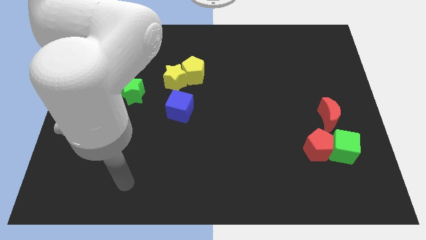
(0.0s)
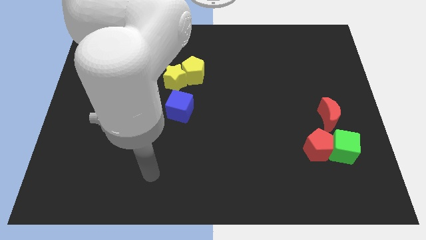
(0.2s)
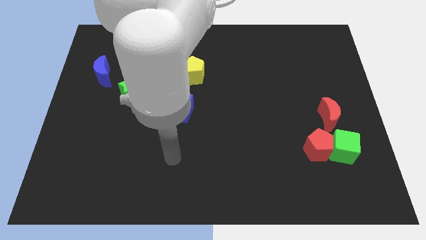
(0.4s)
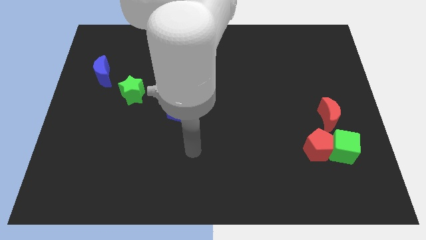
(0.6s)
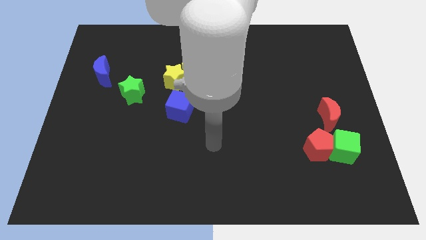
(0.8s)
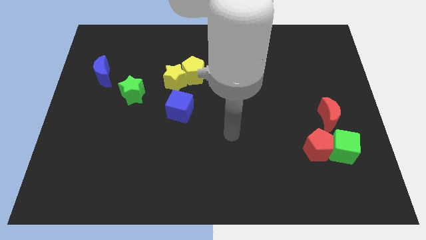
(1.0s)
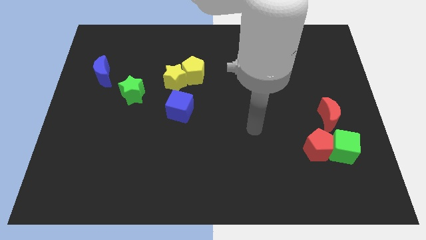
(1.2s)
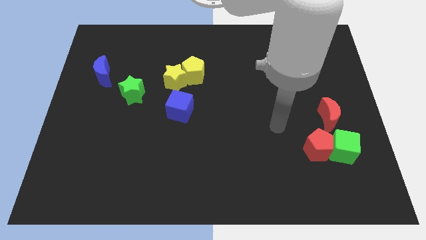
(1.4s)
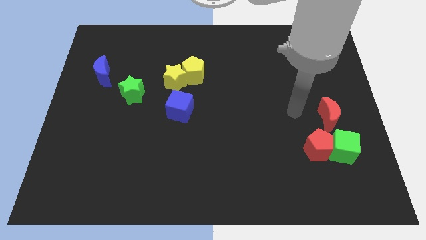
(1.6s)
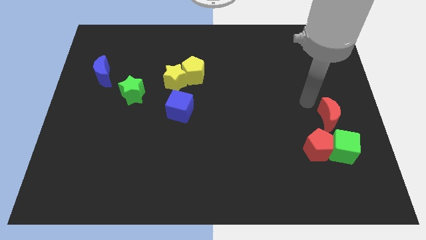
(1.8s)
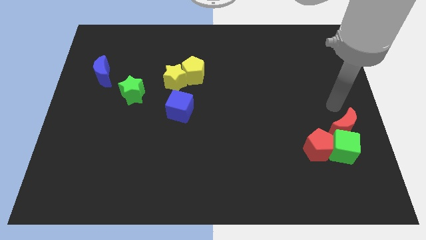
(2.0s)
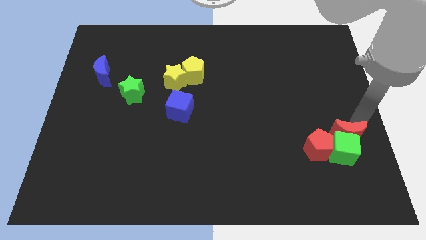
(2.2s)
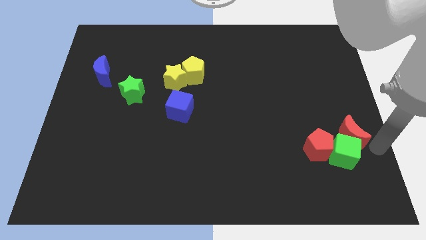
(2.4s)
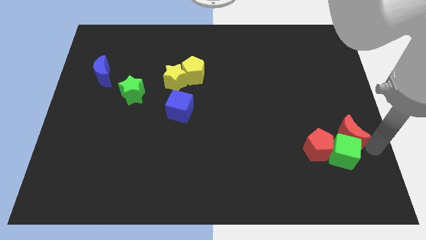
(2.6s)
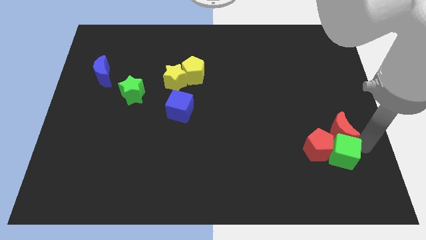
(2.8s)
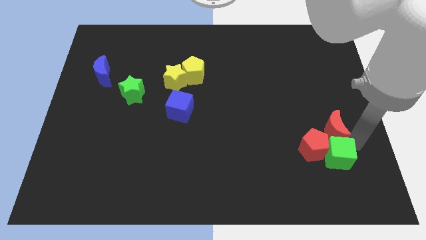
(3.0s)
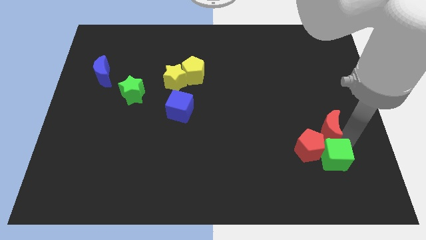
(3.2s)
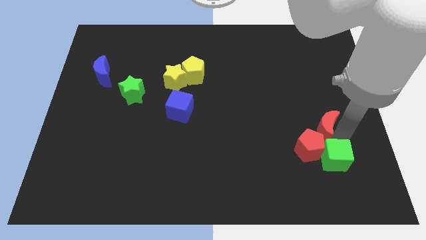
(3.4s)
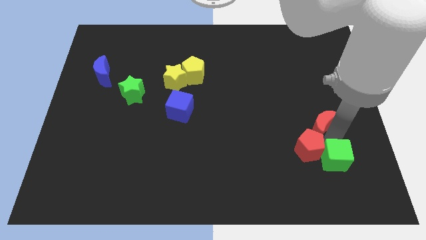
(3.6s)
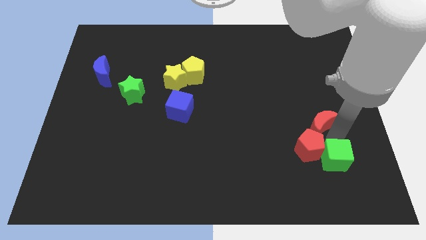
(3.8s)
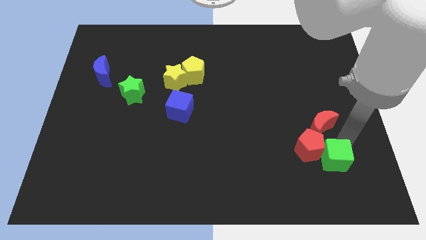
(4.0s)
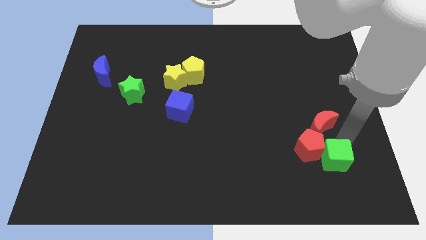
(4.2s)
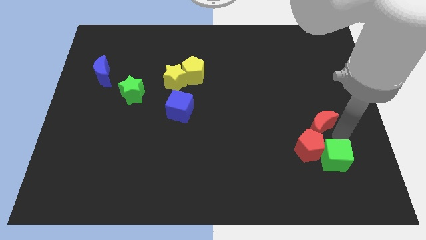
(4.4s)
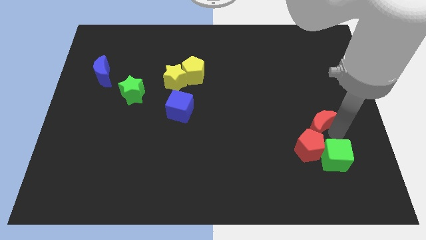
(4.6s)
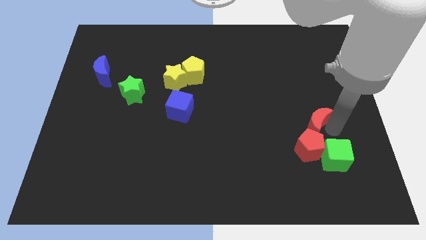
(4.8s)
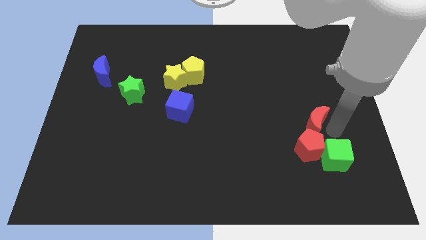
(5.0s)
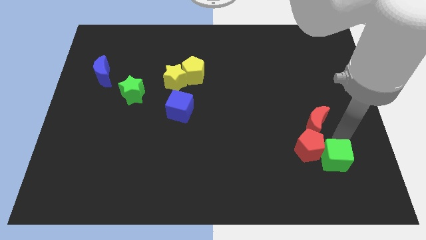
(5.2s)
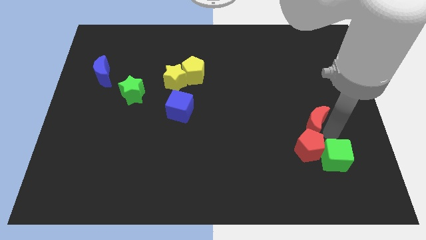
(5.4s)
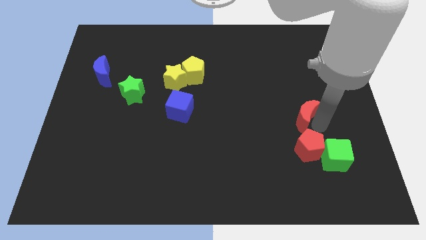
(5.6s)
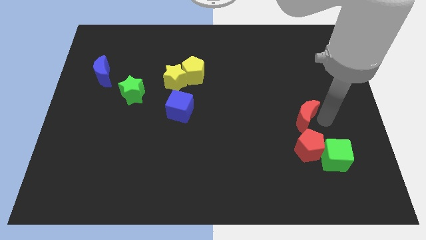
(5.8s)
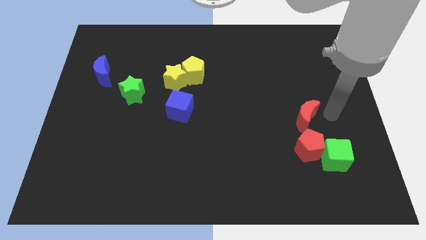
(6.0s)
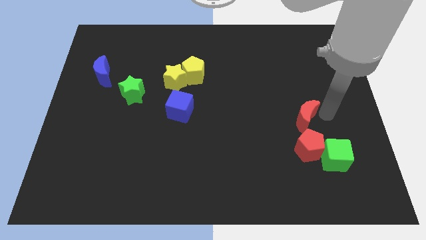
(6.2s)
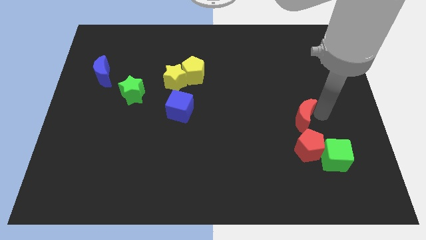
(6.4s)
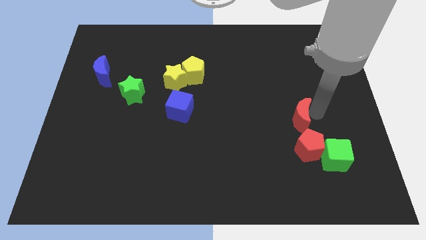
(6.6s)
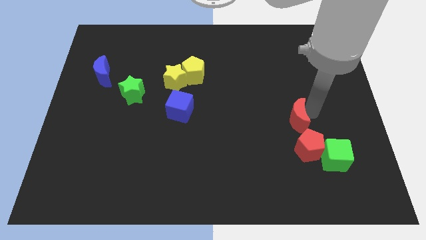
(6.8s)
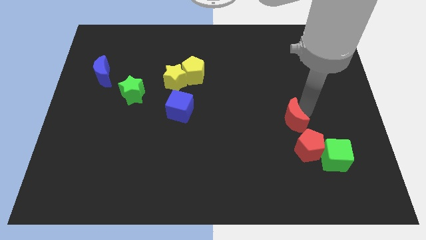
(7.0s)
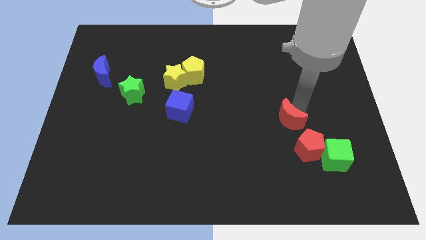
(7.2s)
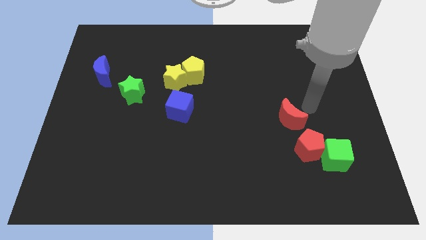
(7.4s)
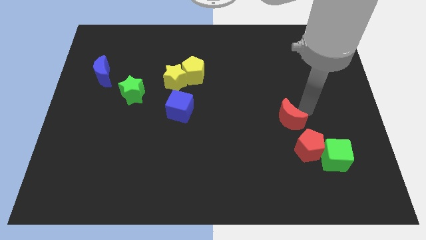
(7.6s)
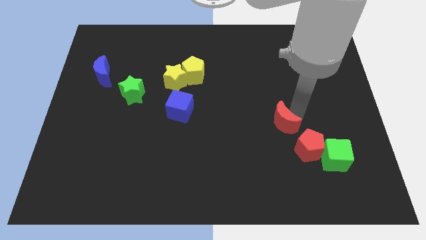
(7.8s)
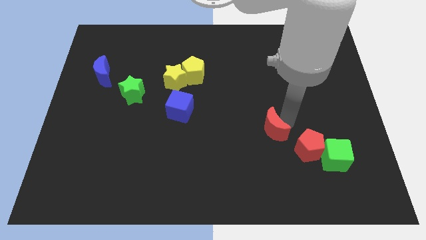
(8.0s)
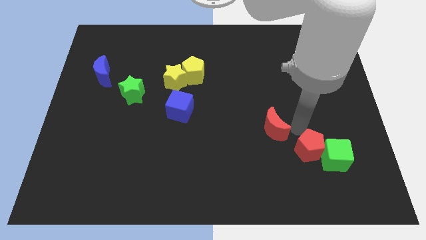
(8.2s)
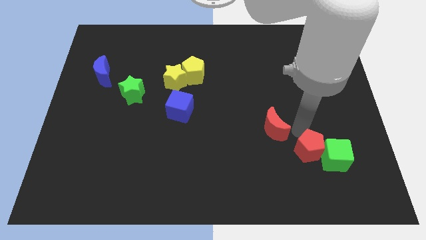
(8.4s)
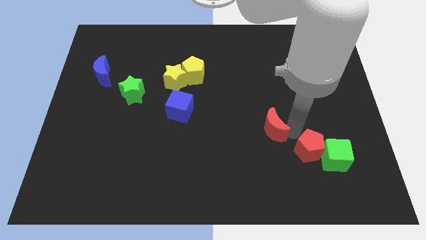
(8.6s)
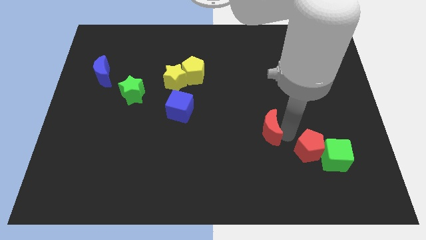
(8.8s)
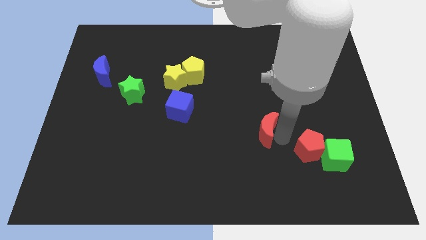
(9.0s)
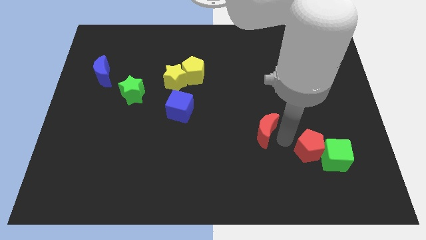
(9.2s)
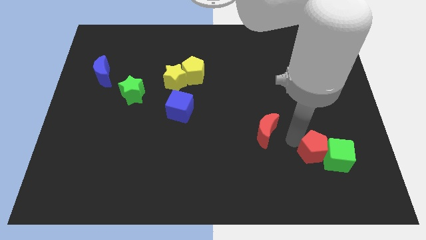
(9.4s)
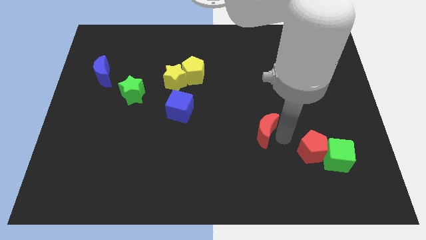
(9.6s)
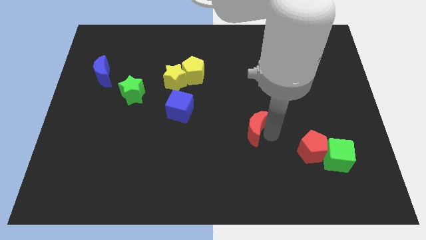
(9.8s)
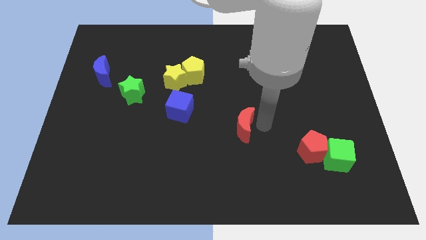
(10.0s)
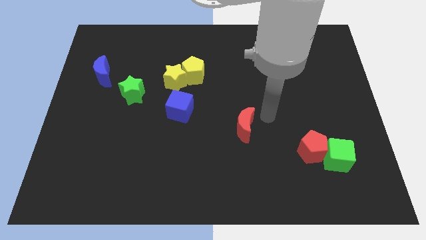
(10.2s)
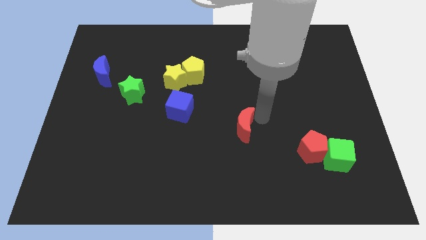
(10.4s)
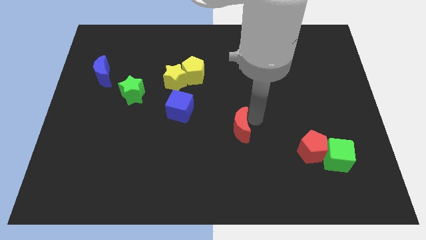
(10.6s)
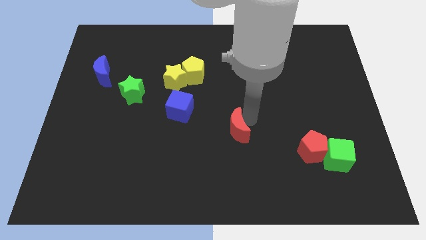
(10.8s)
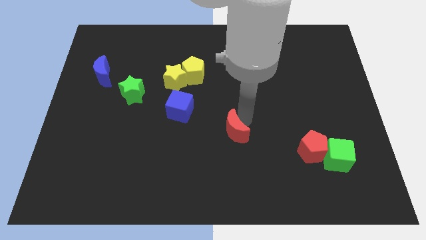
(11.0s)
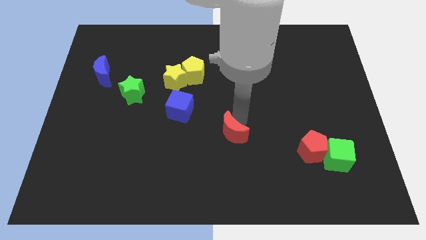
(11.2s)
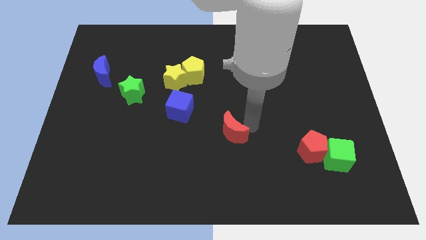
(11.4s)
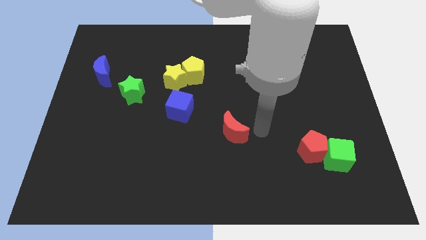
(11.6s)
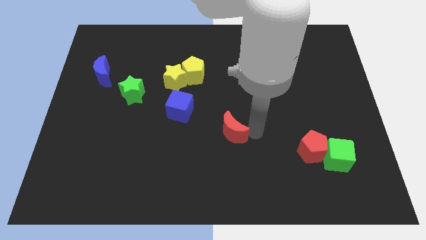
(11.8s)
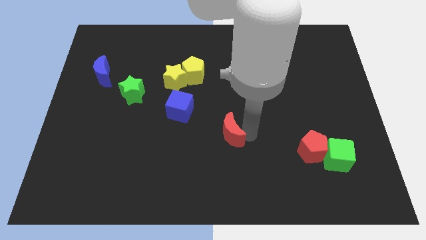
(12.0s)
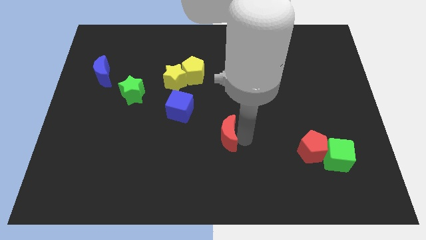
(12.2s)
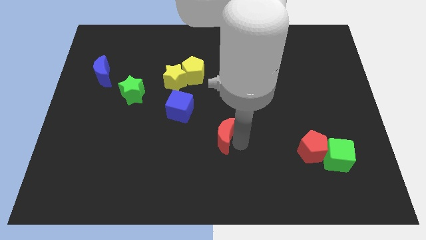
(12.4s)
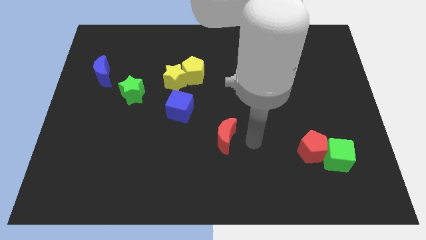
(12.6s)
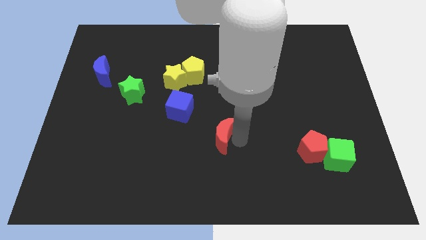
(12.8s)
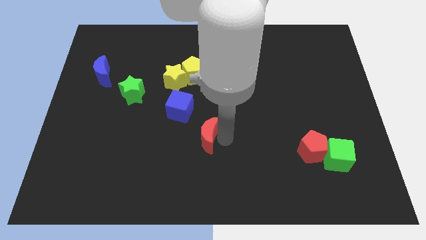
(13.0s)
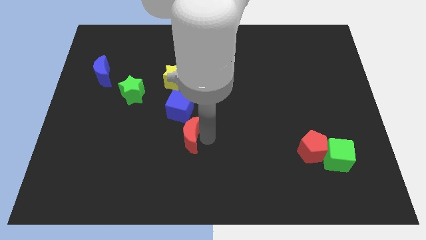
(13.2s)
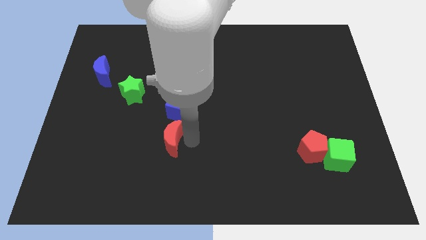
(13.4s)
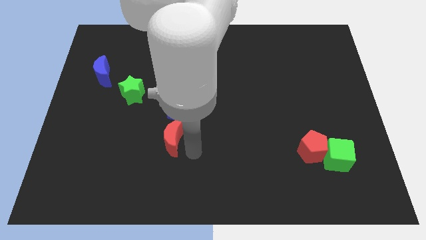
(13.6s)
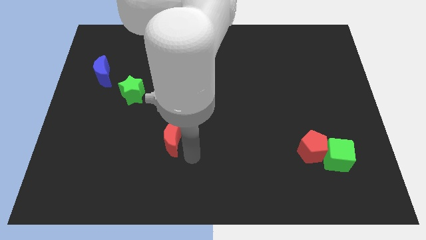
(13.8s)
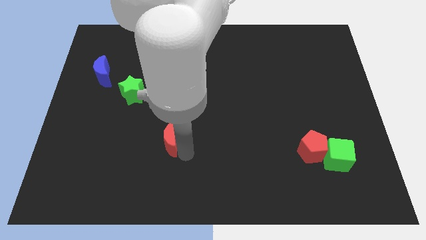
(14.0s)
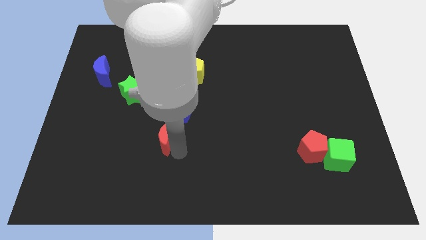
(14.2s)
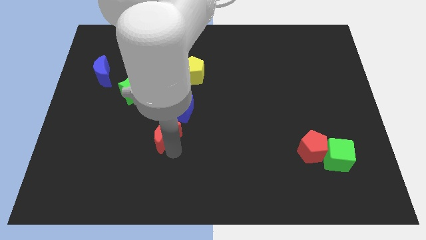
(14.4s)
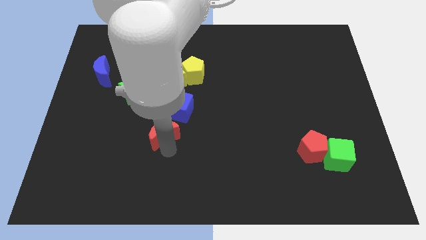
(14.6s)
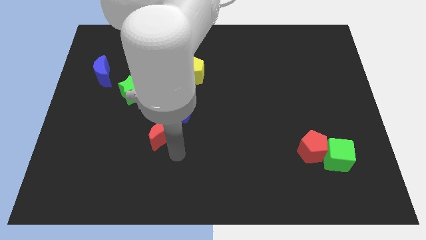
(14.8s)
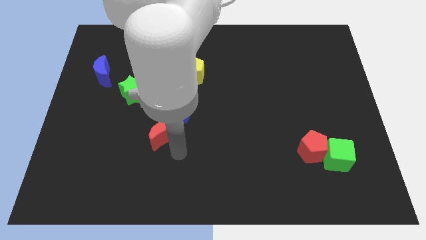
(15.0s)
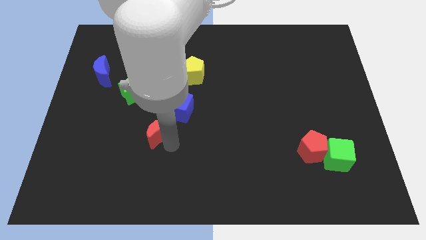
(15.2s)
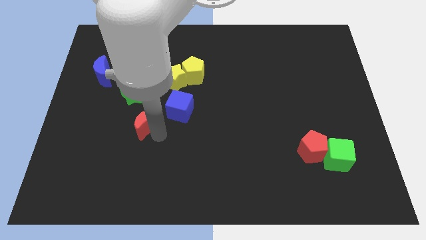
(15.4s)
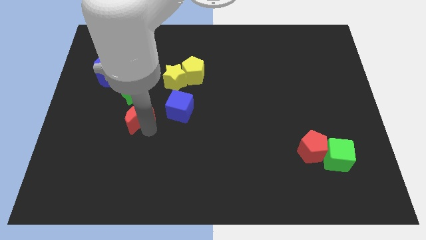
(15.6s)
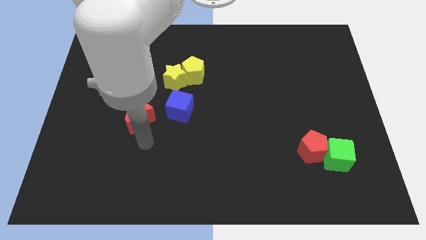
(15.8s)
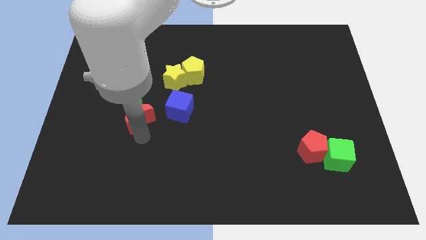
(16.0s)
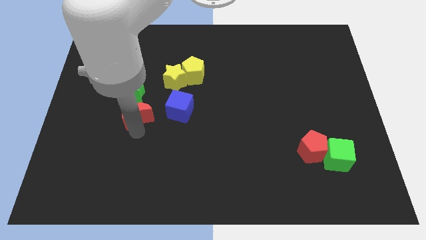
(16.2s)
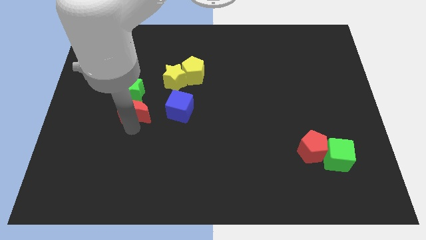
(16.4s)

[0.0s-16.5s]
push the red moon next to the green star
